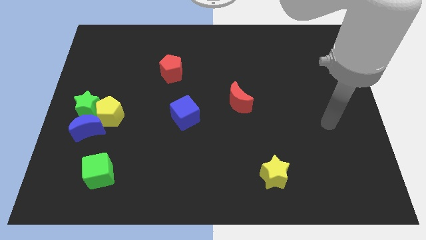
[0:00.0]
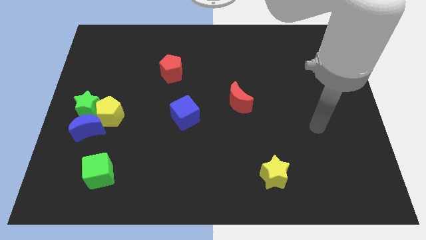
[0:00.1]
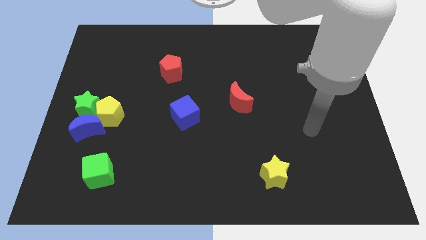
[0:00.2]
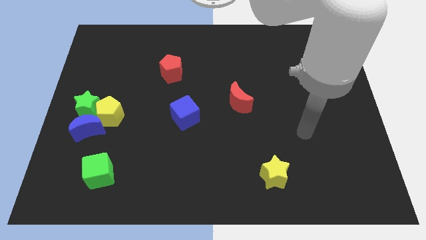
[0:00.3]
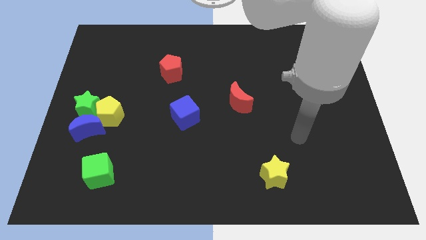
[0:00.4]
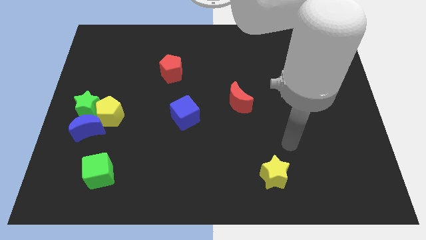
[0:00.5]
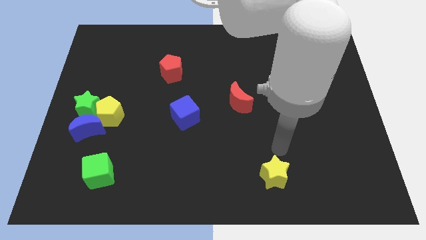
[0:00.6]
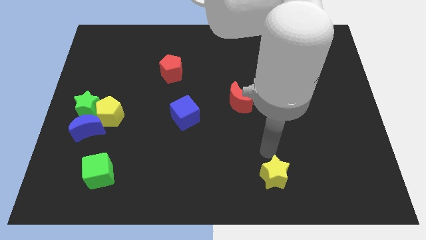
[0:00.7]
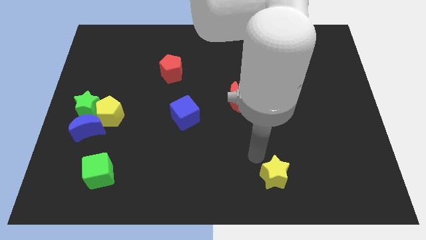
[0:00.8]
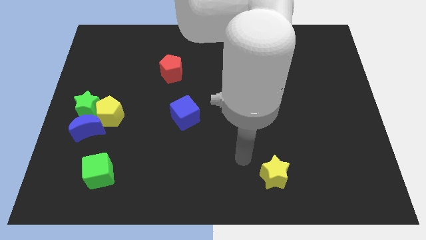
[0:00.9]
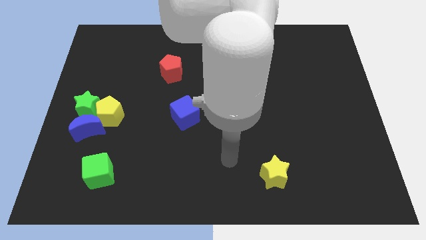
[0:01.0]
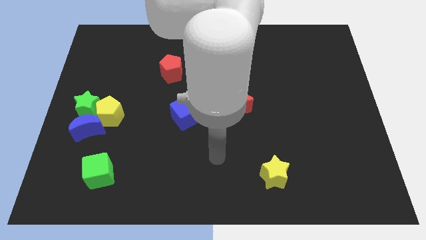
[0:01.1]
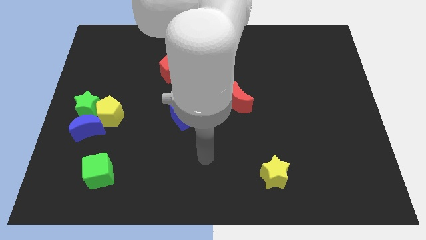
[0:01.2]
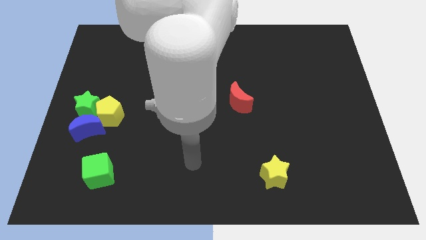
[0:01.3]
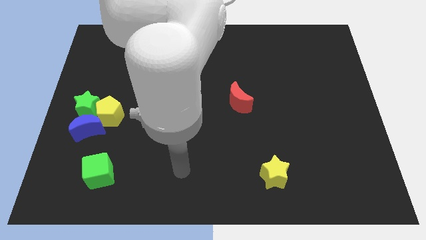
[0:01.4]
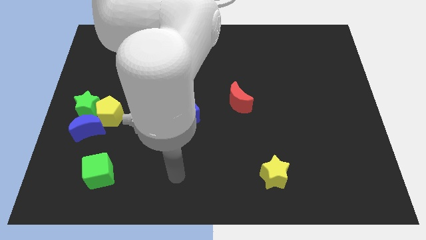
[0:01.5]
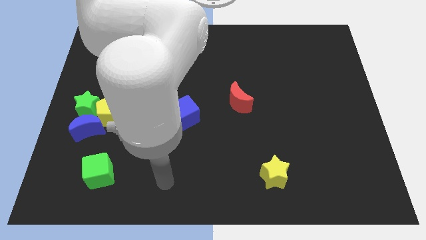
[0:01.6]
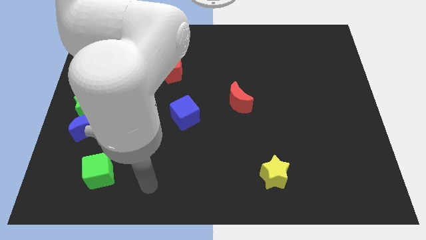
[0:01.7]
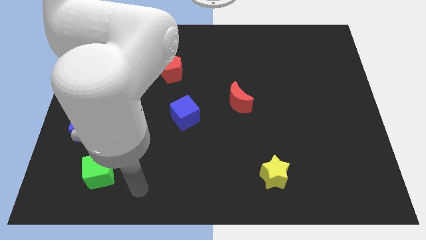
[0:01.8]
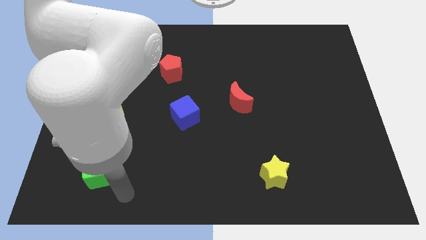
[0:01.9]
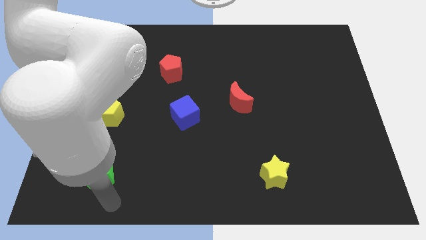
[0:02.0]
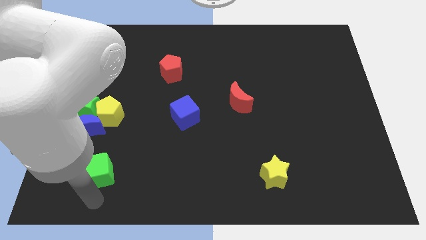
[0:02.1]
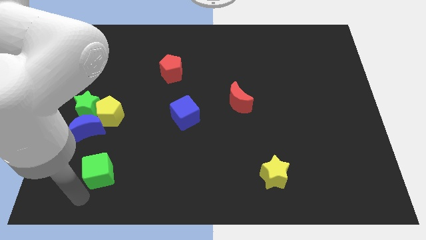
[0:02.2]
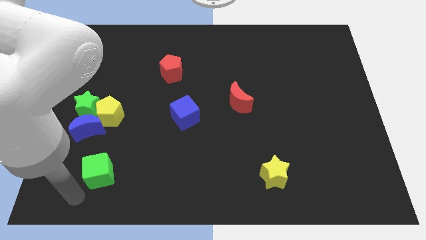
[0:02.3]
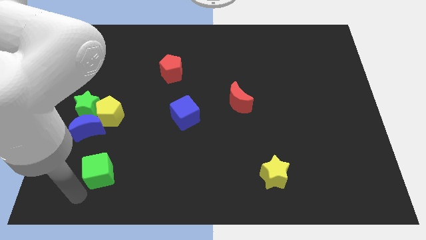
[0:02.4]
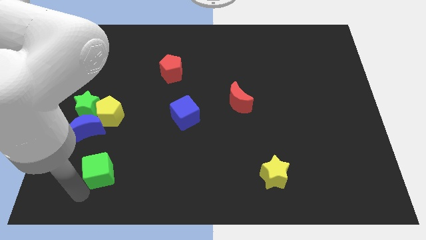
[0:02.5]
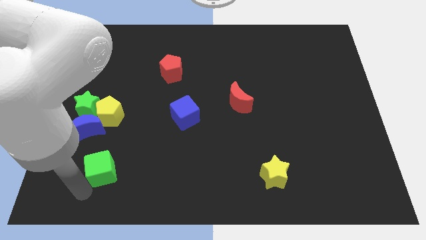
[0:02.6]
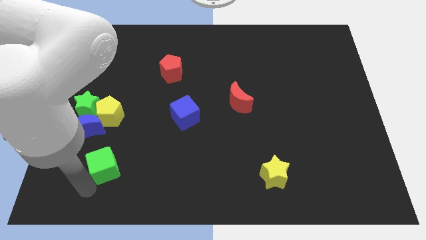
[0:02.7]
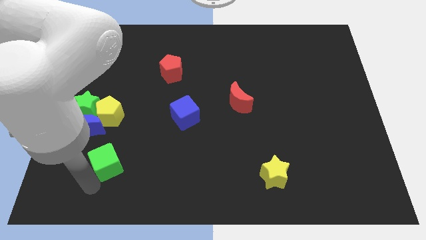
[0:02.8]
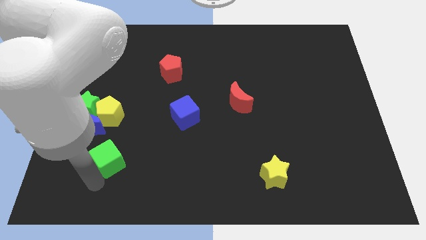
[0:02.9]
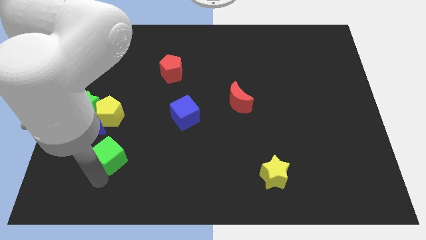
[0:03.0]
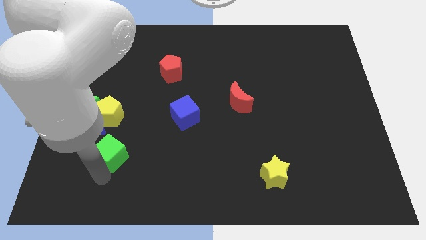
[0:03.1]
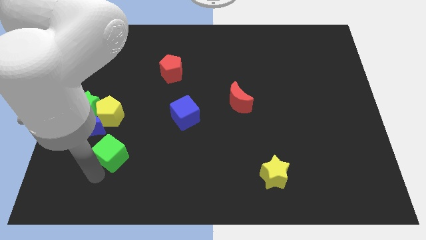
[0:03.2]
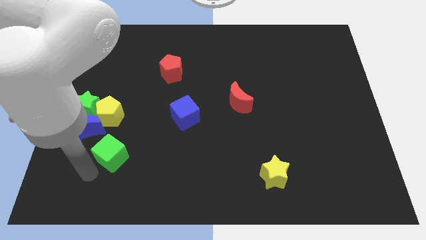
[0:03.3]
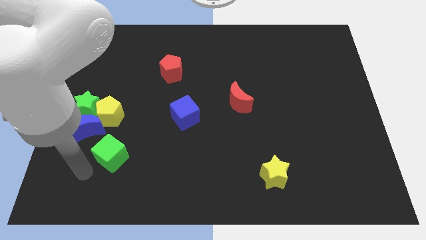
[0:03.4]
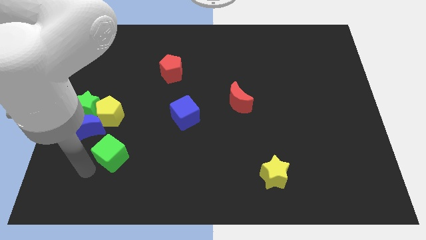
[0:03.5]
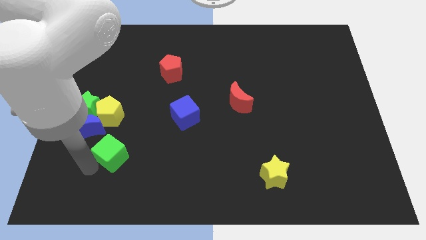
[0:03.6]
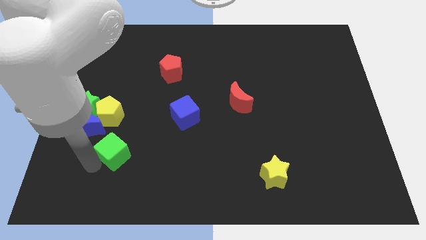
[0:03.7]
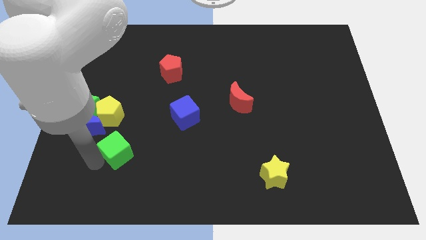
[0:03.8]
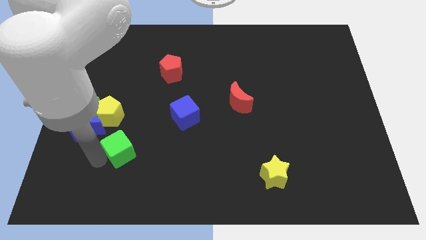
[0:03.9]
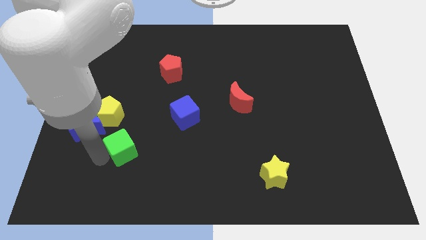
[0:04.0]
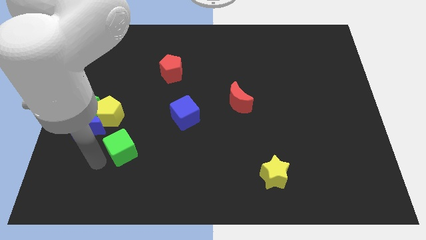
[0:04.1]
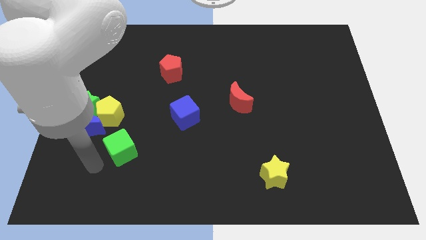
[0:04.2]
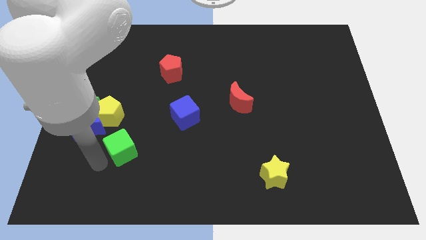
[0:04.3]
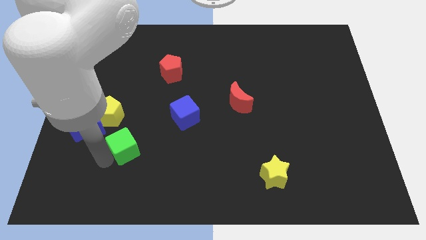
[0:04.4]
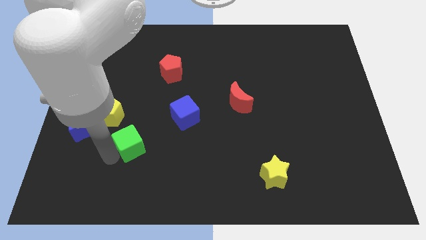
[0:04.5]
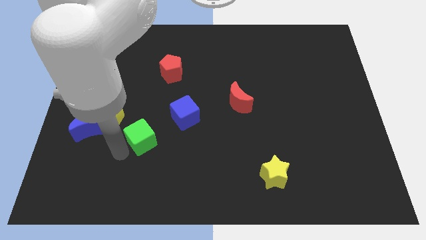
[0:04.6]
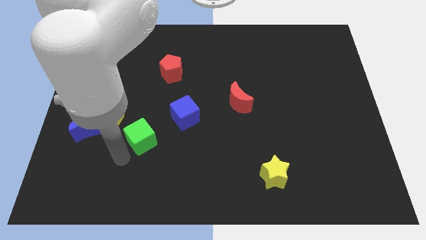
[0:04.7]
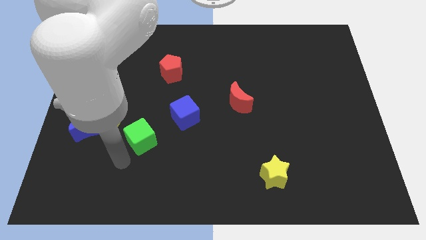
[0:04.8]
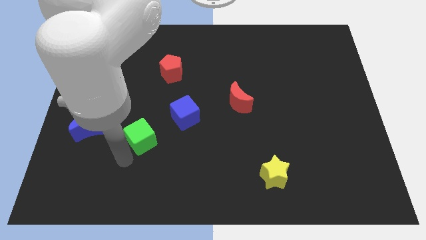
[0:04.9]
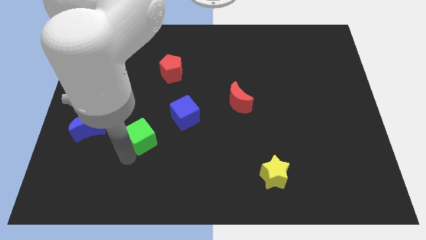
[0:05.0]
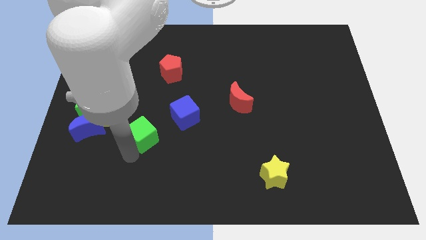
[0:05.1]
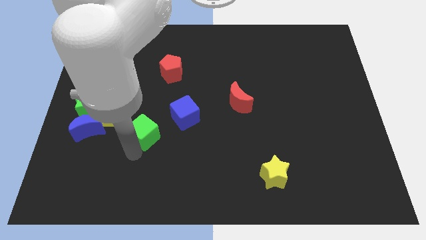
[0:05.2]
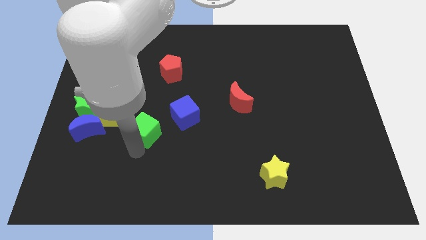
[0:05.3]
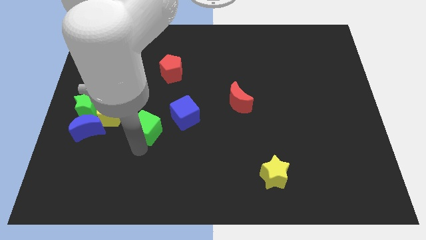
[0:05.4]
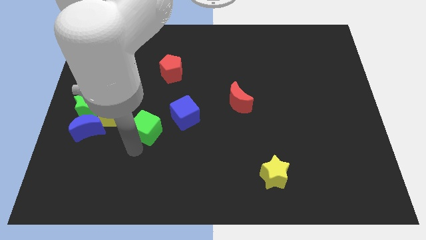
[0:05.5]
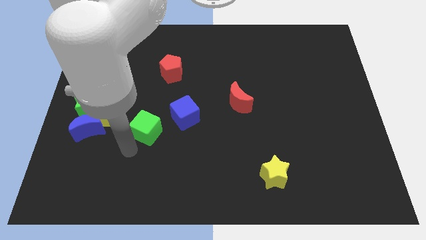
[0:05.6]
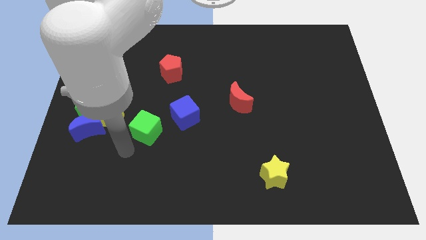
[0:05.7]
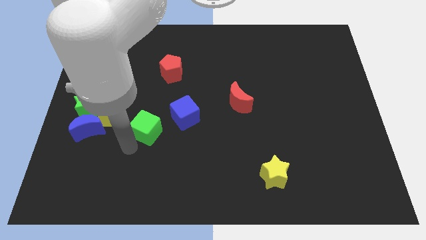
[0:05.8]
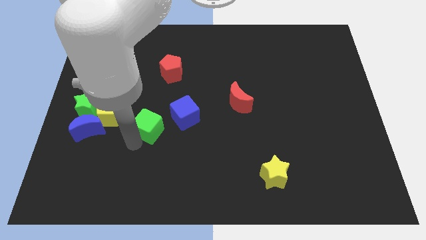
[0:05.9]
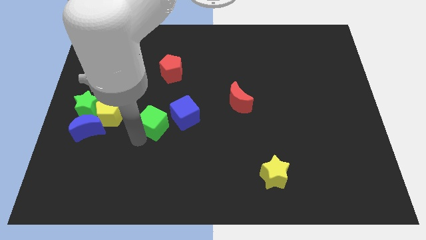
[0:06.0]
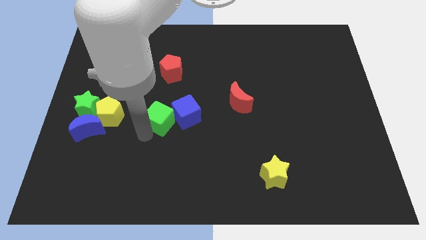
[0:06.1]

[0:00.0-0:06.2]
put the green cube below the red pentagon

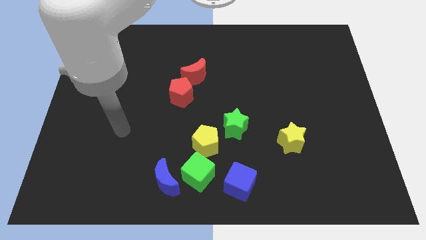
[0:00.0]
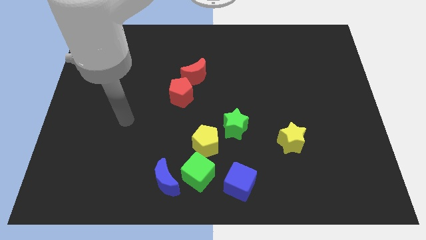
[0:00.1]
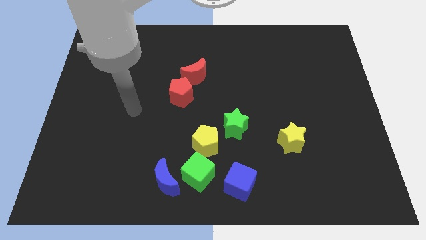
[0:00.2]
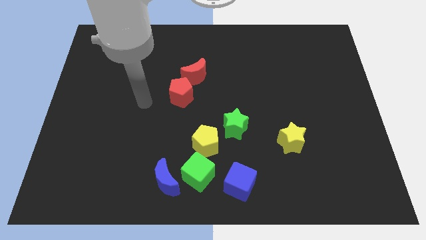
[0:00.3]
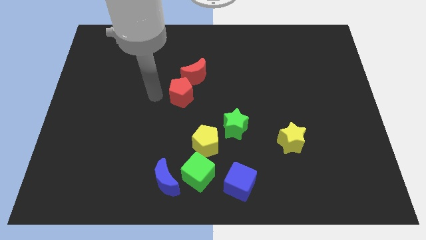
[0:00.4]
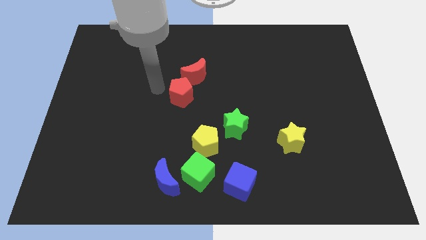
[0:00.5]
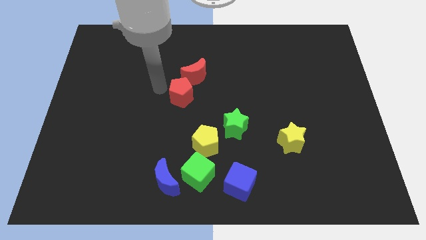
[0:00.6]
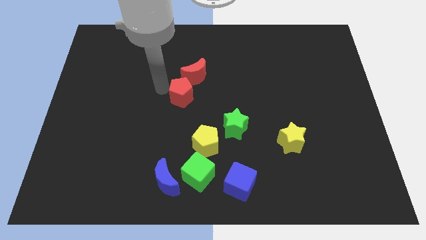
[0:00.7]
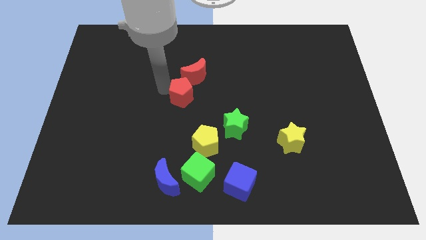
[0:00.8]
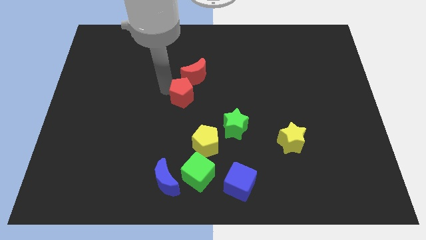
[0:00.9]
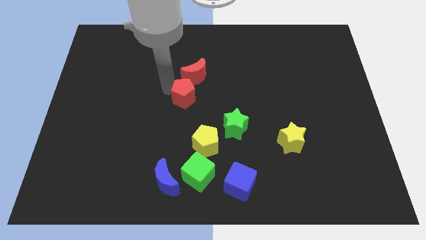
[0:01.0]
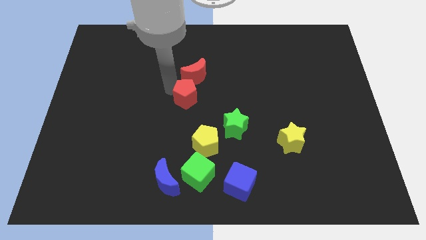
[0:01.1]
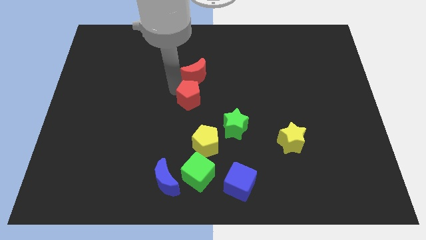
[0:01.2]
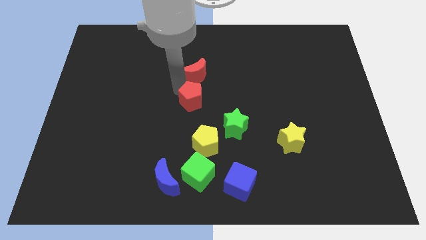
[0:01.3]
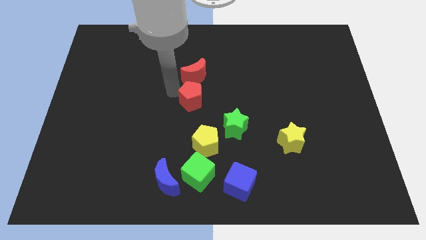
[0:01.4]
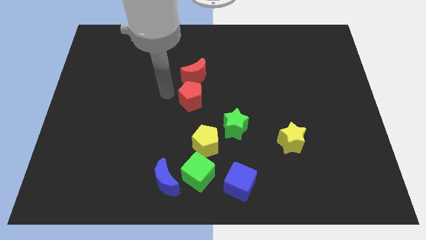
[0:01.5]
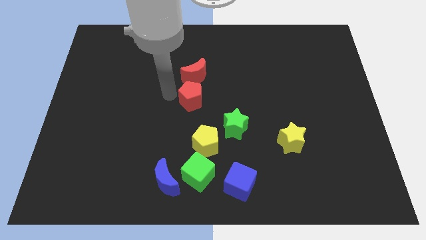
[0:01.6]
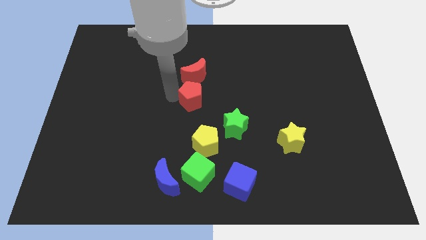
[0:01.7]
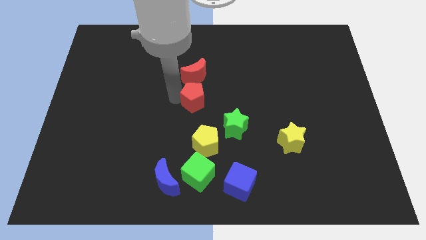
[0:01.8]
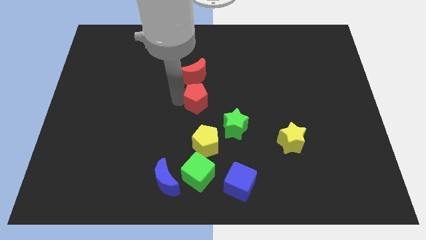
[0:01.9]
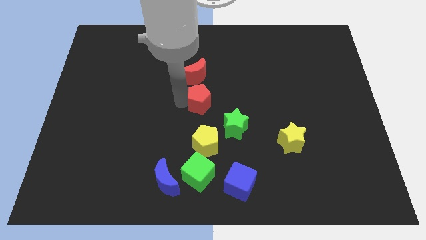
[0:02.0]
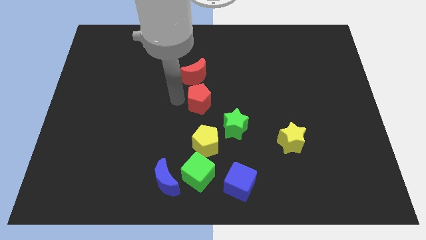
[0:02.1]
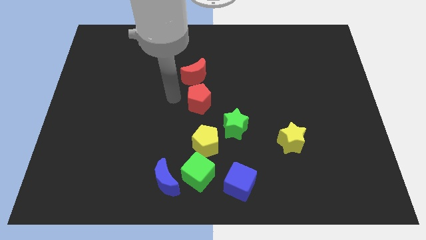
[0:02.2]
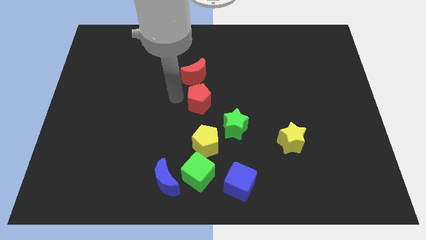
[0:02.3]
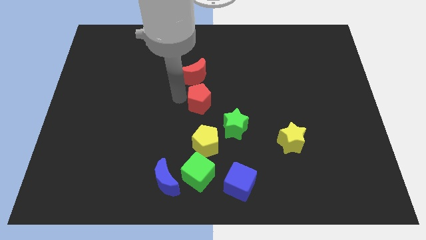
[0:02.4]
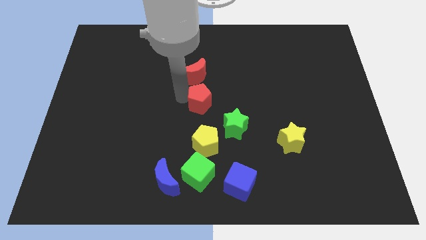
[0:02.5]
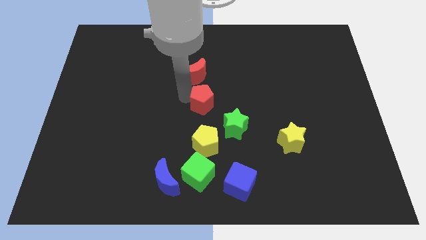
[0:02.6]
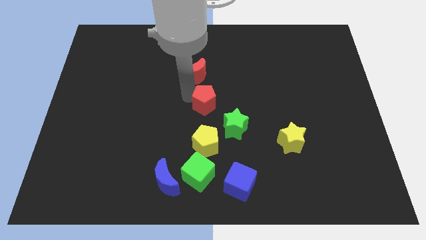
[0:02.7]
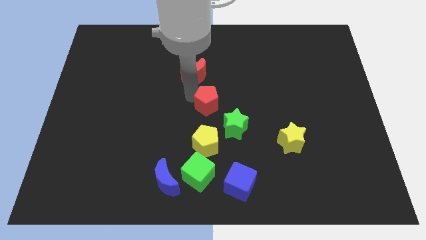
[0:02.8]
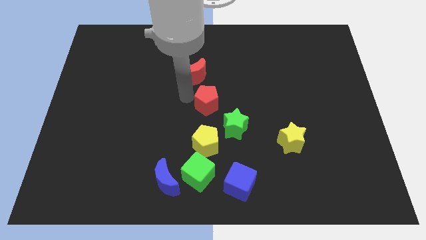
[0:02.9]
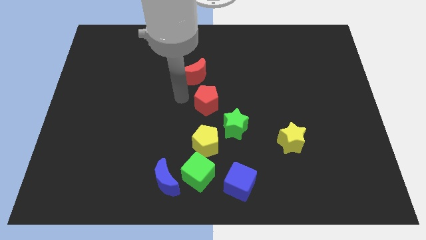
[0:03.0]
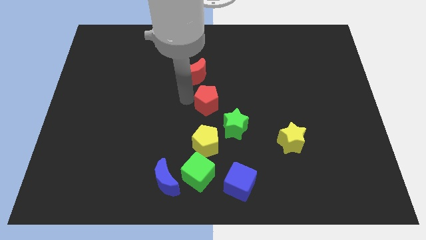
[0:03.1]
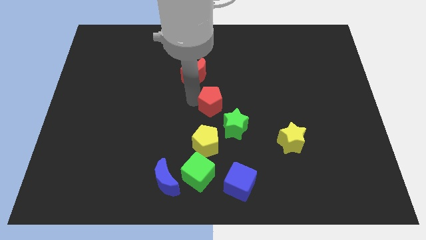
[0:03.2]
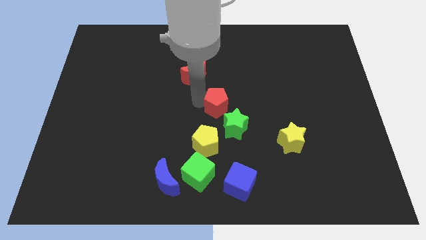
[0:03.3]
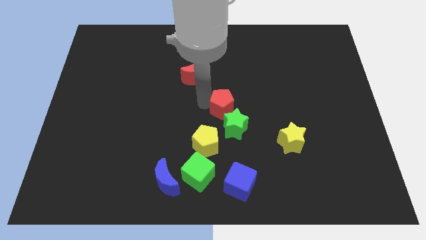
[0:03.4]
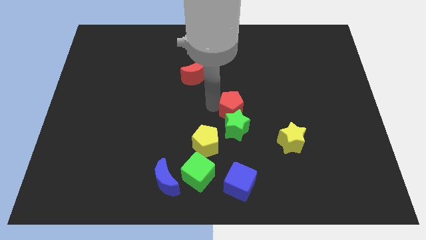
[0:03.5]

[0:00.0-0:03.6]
put the red pentagon diagonally up and to the right of the green star
